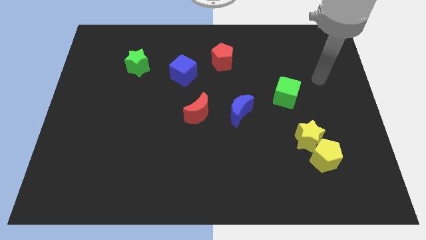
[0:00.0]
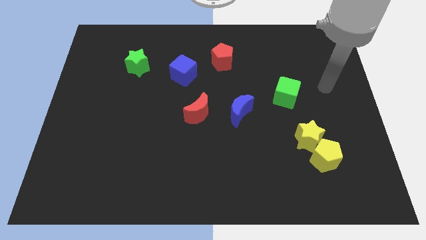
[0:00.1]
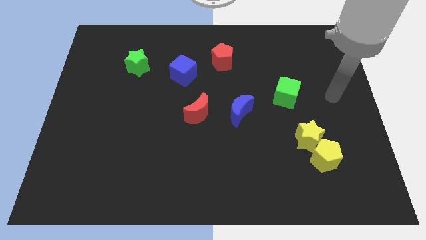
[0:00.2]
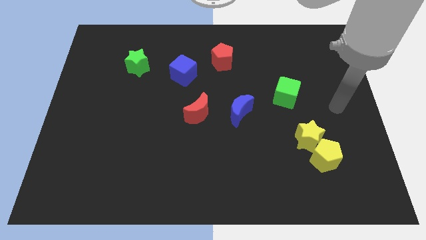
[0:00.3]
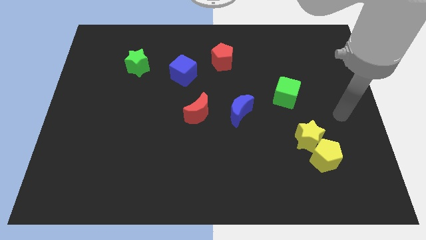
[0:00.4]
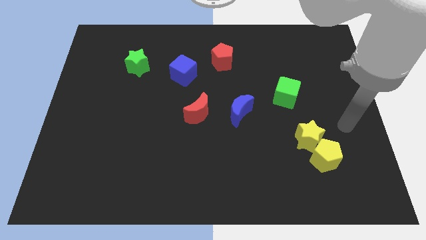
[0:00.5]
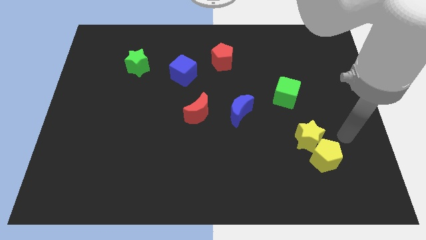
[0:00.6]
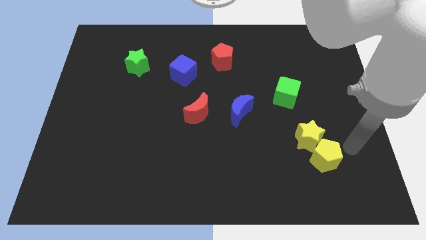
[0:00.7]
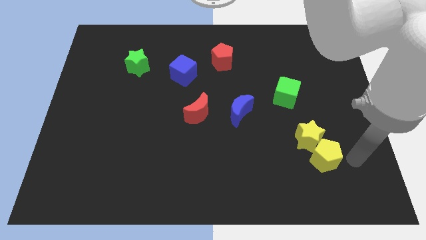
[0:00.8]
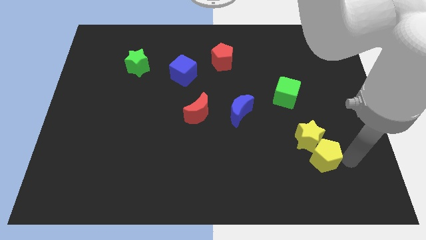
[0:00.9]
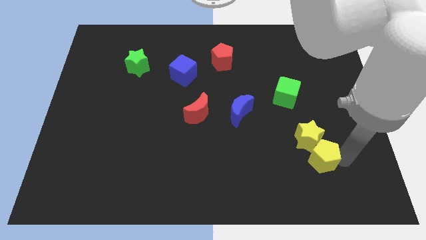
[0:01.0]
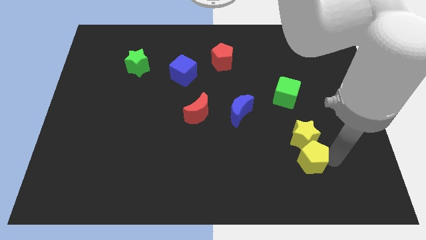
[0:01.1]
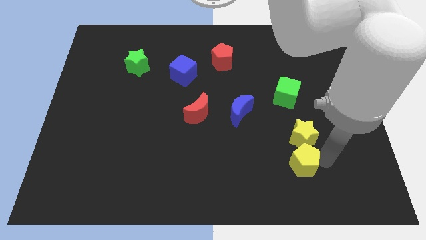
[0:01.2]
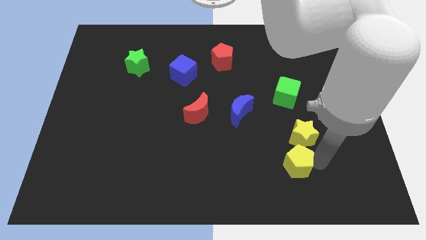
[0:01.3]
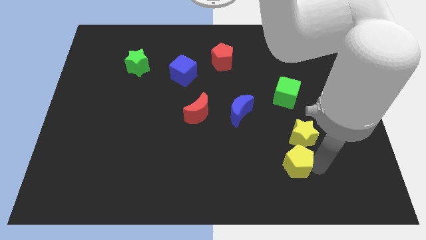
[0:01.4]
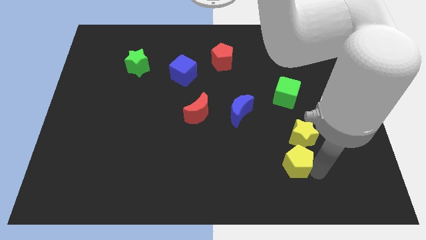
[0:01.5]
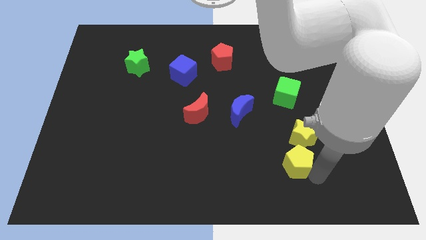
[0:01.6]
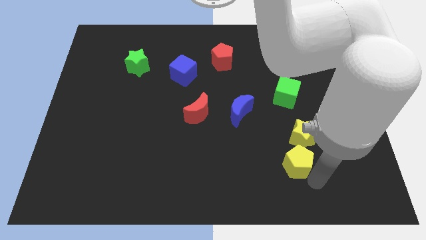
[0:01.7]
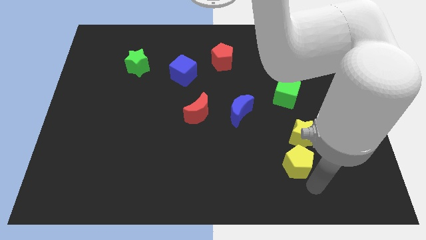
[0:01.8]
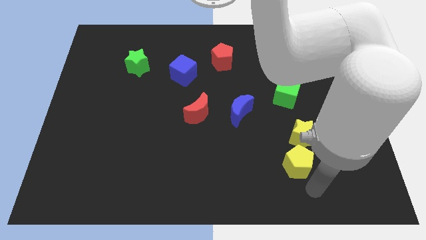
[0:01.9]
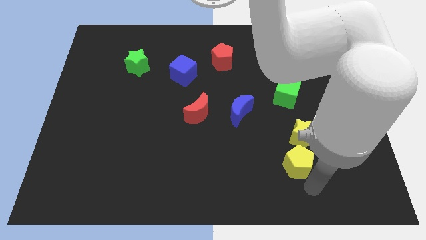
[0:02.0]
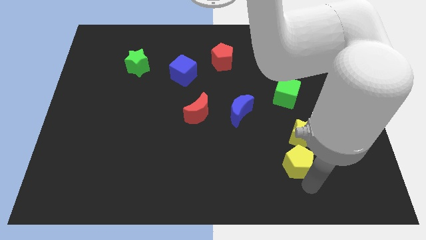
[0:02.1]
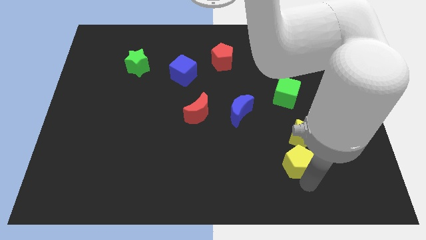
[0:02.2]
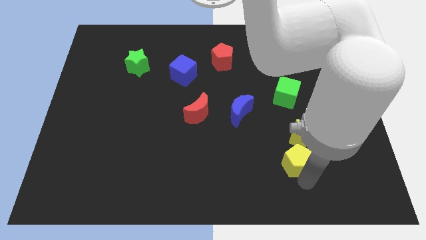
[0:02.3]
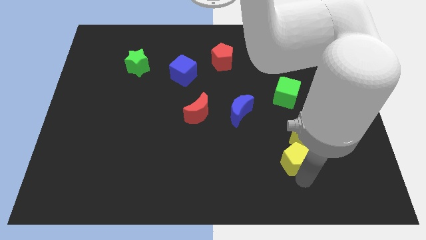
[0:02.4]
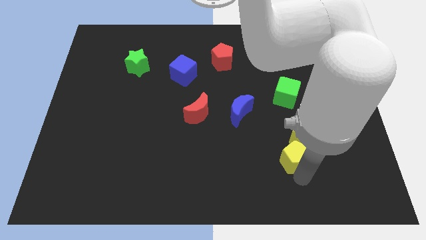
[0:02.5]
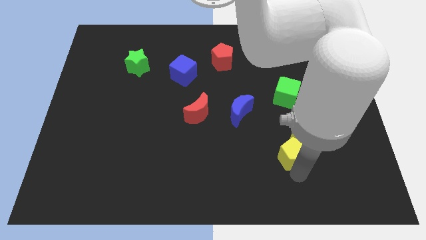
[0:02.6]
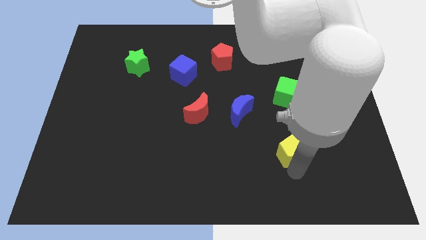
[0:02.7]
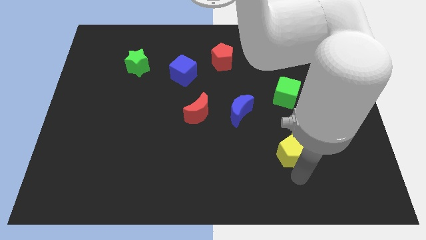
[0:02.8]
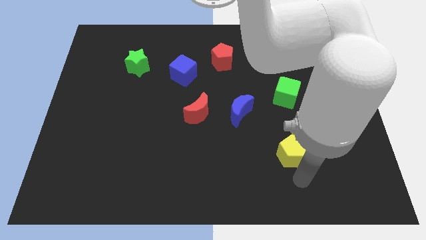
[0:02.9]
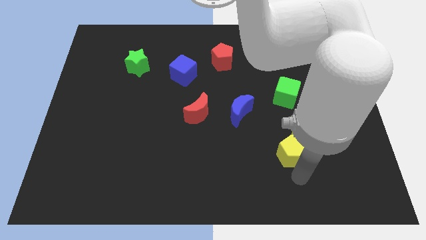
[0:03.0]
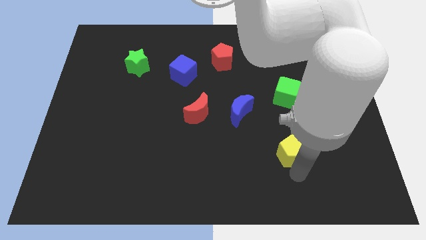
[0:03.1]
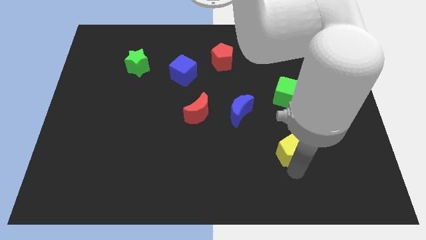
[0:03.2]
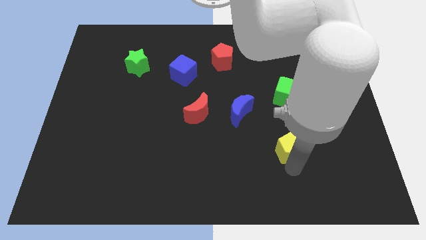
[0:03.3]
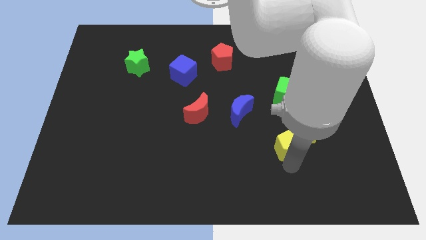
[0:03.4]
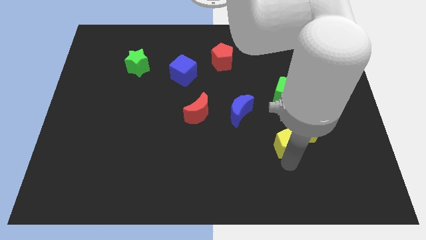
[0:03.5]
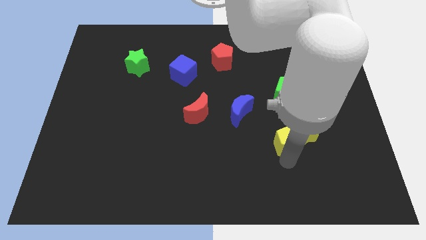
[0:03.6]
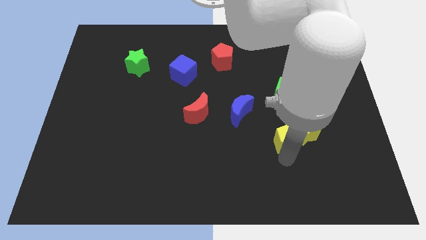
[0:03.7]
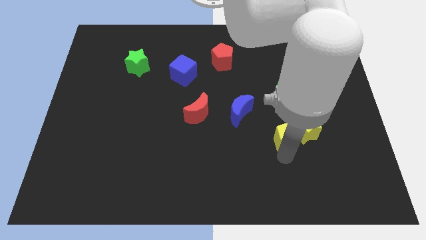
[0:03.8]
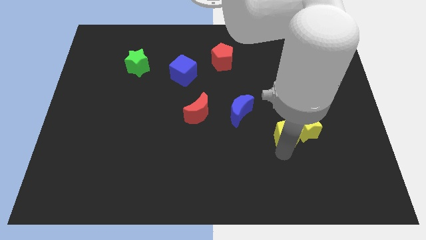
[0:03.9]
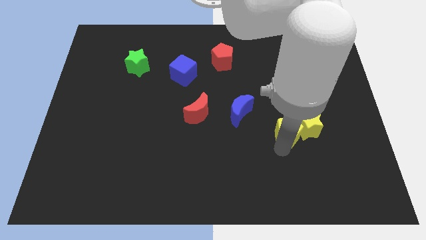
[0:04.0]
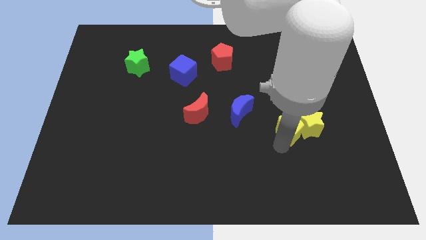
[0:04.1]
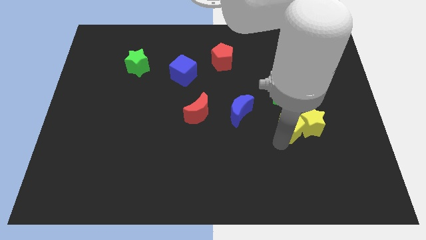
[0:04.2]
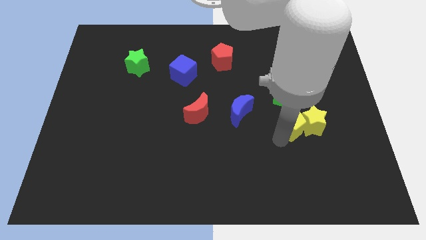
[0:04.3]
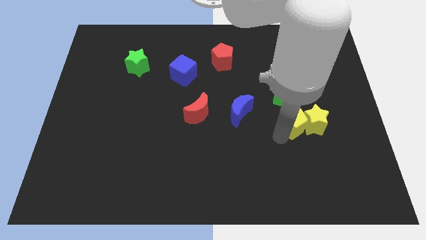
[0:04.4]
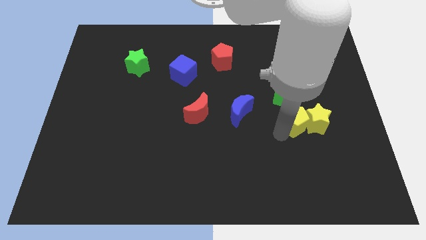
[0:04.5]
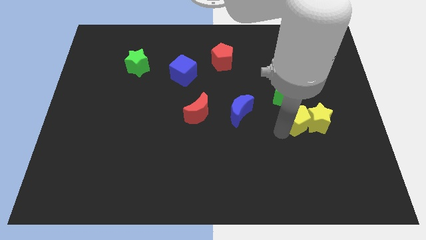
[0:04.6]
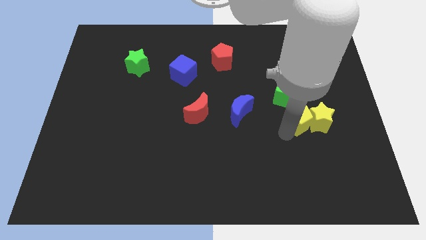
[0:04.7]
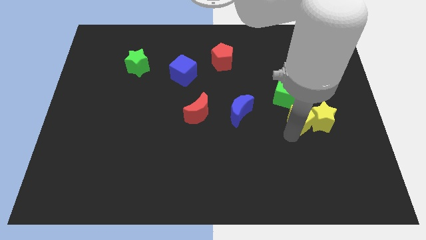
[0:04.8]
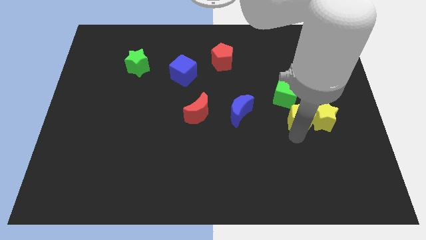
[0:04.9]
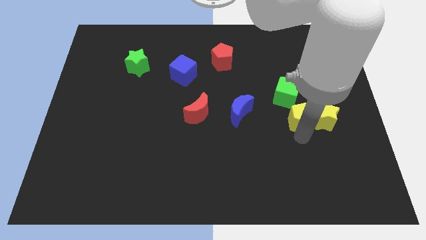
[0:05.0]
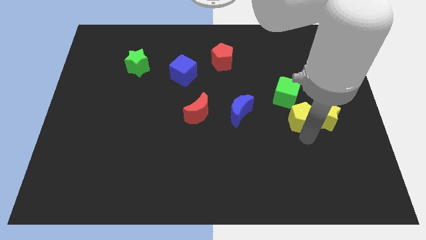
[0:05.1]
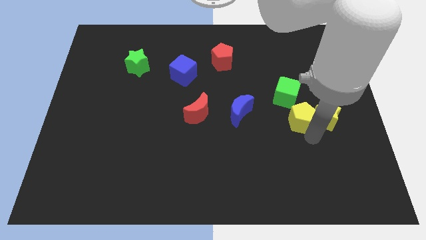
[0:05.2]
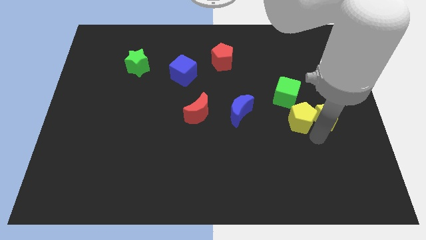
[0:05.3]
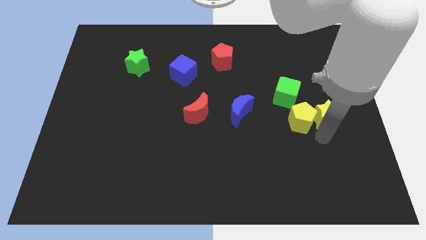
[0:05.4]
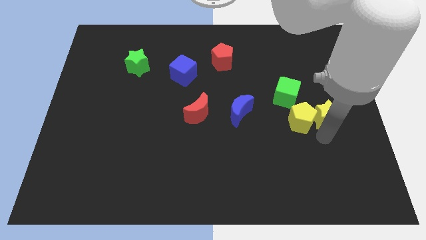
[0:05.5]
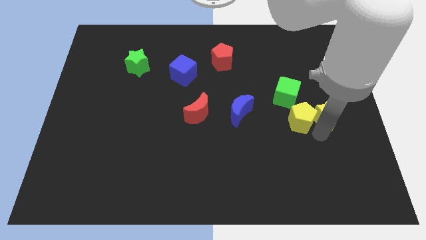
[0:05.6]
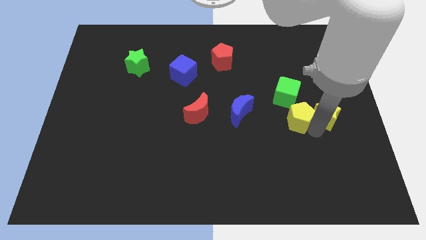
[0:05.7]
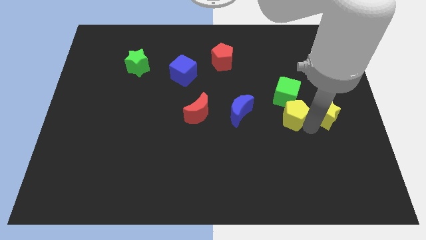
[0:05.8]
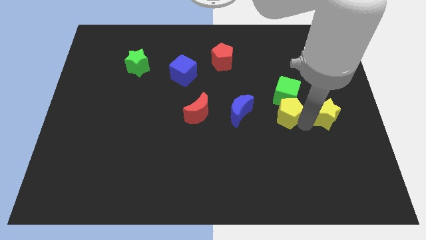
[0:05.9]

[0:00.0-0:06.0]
move the yellow pentagon close to the green cube

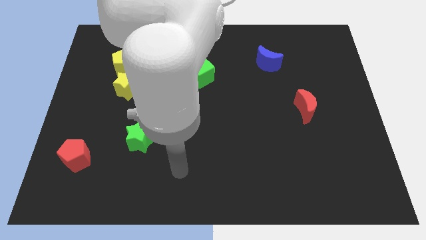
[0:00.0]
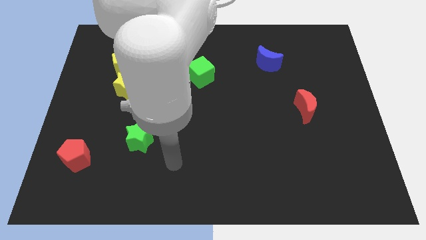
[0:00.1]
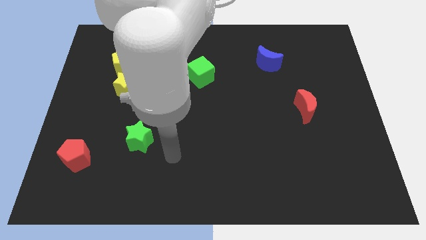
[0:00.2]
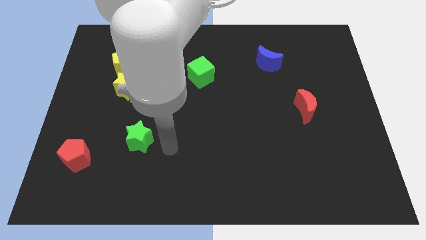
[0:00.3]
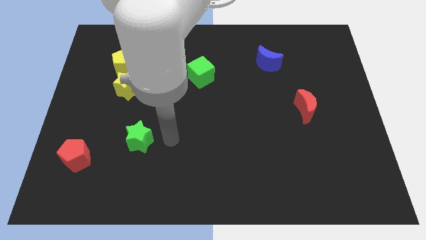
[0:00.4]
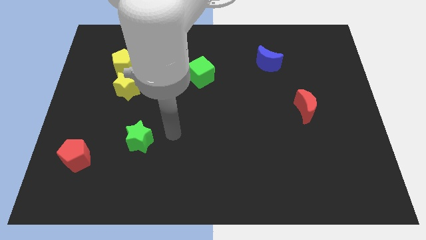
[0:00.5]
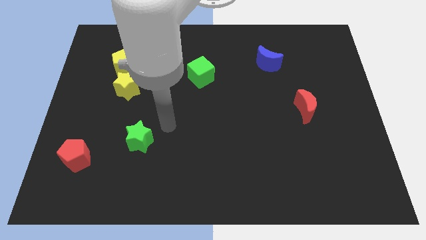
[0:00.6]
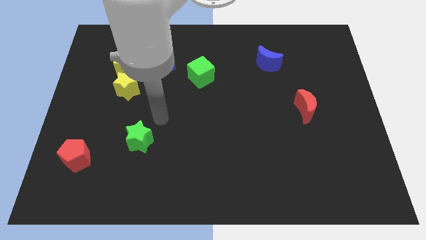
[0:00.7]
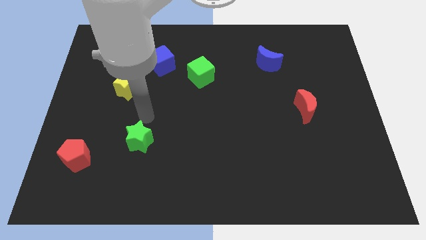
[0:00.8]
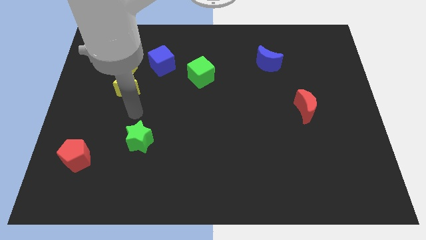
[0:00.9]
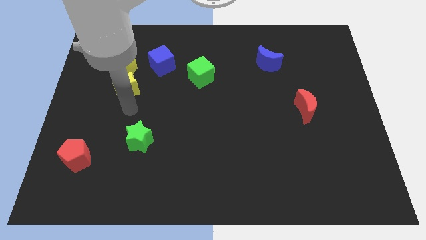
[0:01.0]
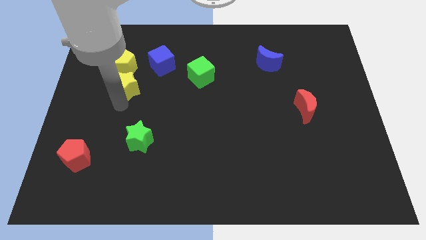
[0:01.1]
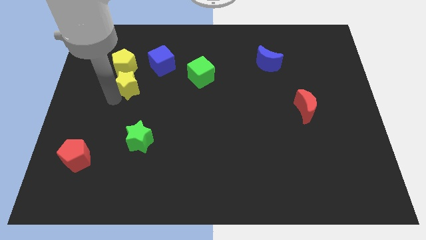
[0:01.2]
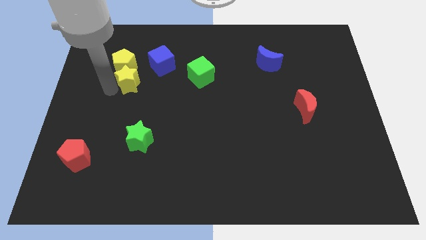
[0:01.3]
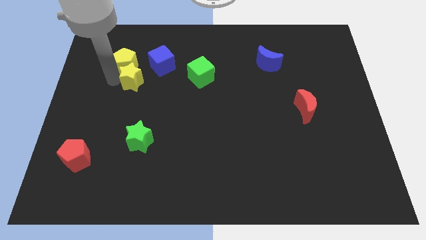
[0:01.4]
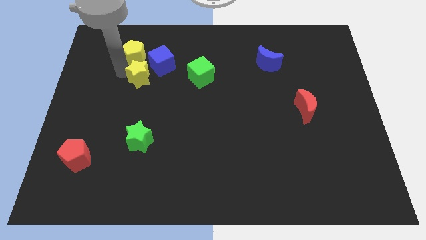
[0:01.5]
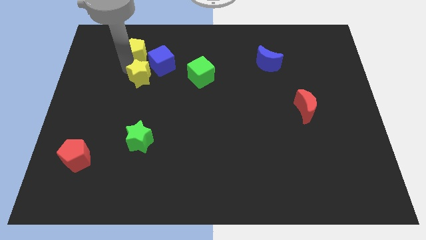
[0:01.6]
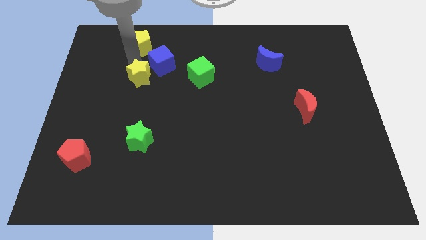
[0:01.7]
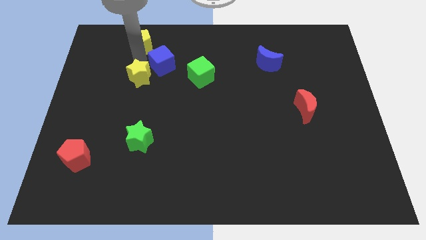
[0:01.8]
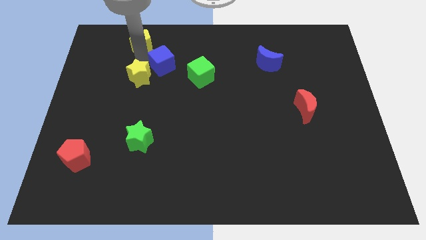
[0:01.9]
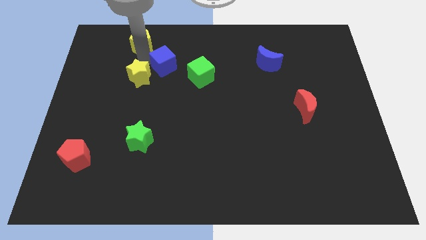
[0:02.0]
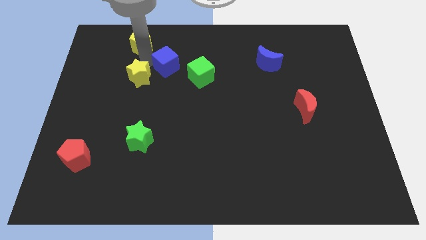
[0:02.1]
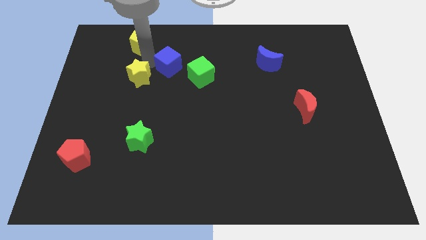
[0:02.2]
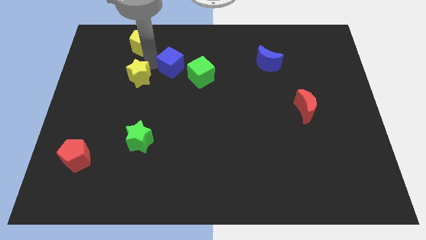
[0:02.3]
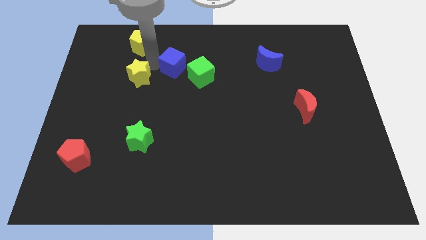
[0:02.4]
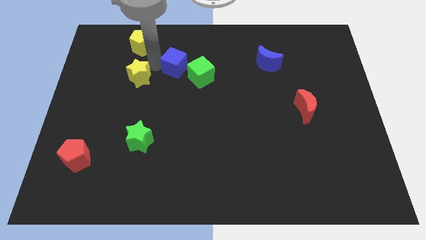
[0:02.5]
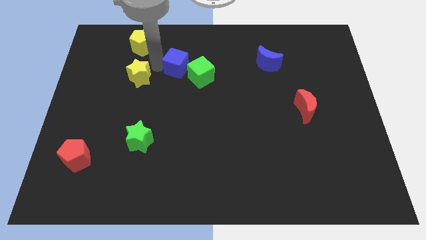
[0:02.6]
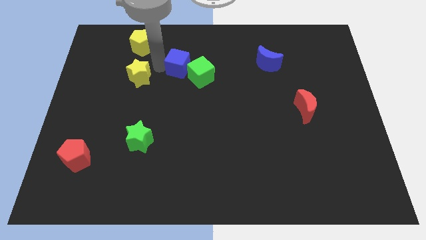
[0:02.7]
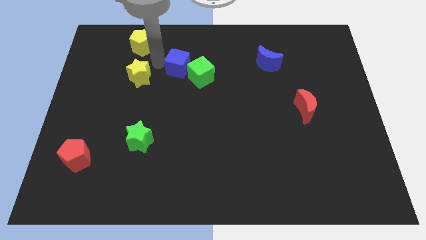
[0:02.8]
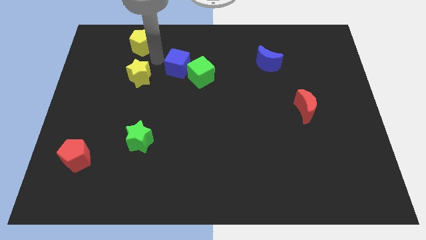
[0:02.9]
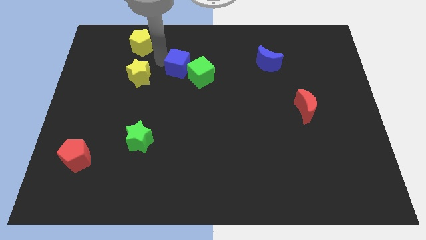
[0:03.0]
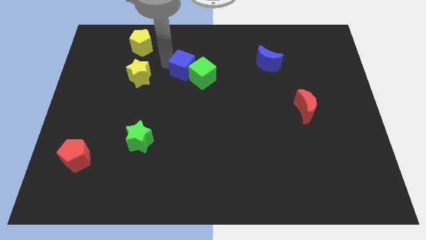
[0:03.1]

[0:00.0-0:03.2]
move the blue cube next to the green cube
